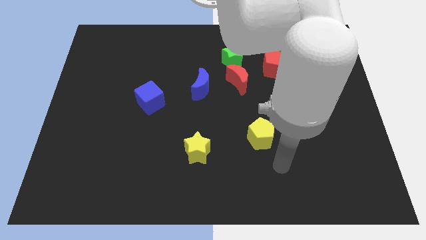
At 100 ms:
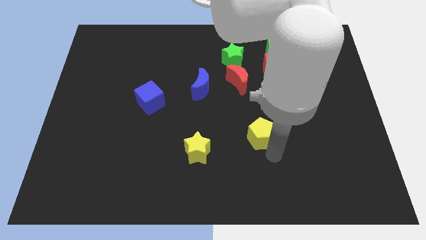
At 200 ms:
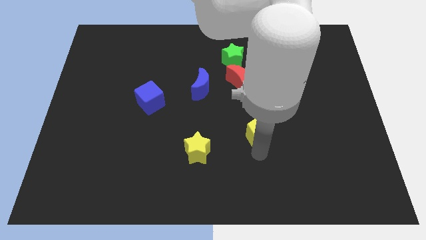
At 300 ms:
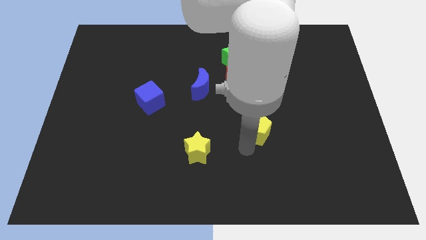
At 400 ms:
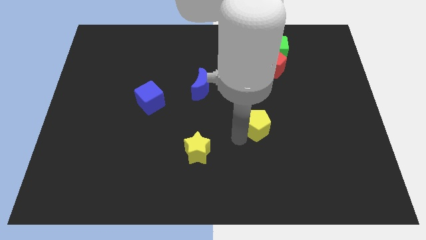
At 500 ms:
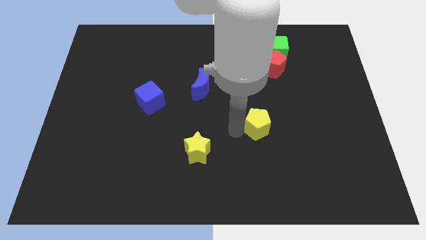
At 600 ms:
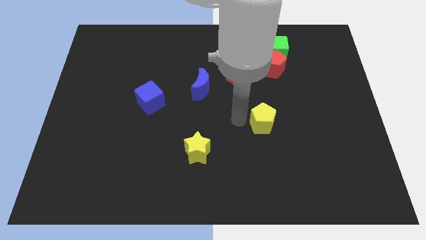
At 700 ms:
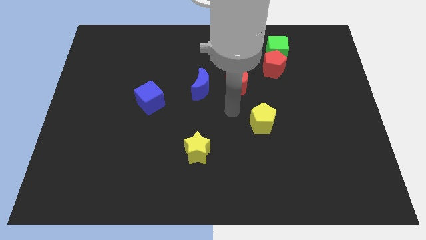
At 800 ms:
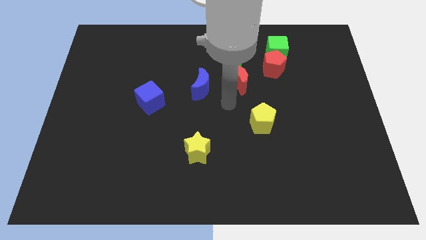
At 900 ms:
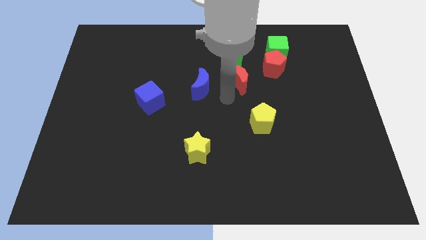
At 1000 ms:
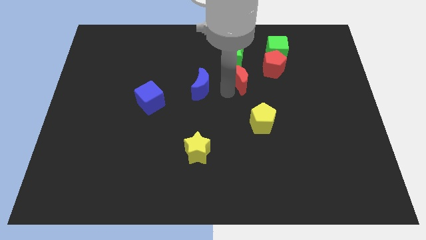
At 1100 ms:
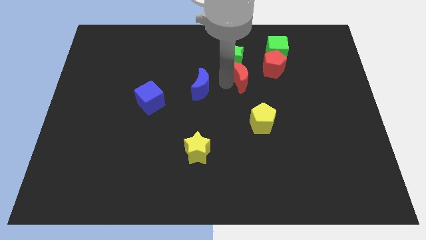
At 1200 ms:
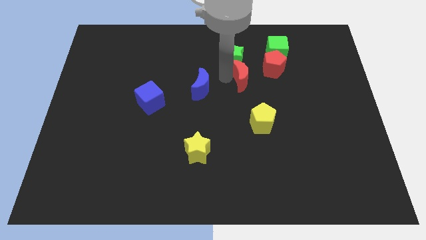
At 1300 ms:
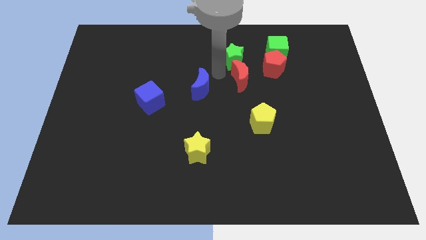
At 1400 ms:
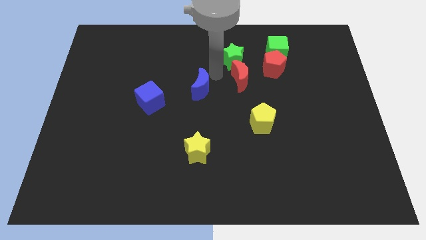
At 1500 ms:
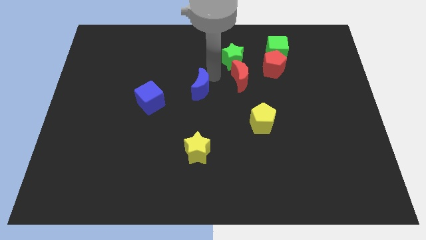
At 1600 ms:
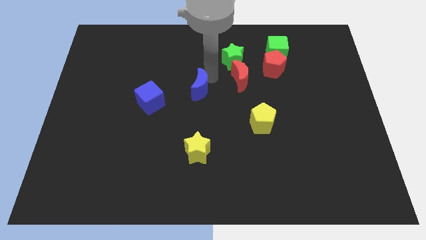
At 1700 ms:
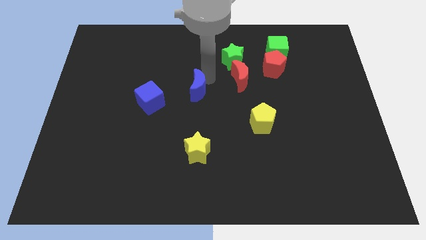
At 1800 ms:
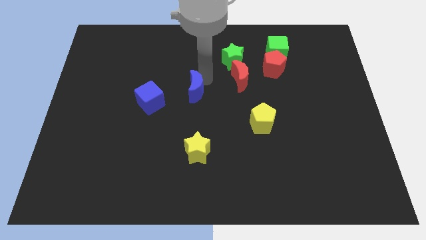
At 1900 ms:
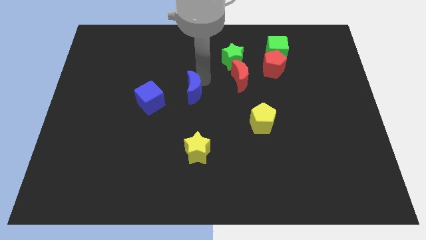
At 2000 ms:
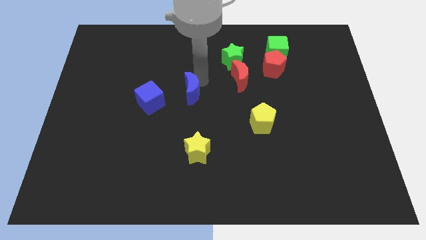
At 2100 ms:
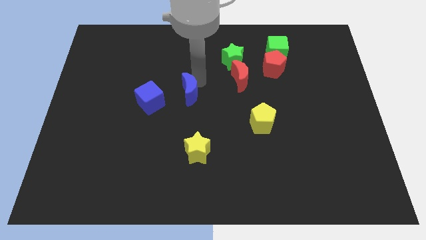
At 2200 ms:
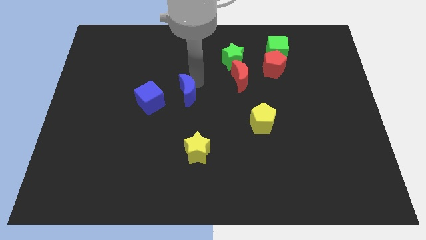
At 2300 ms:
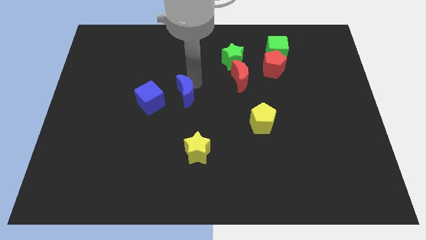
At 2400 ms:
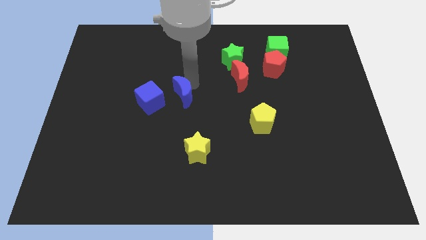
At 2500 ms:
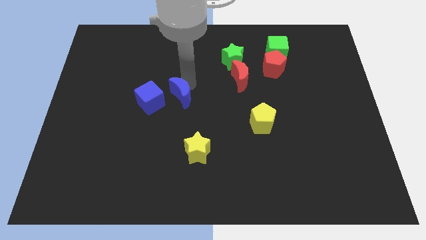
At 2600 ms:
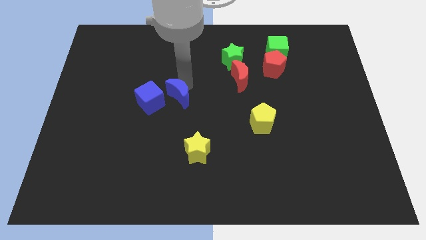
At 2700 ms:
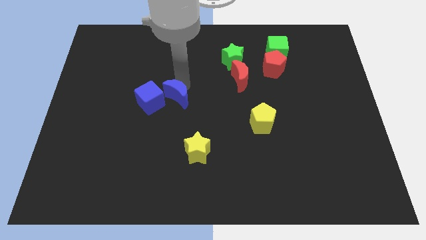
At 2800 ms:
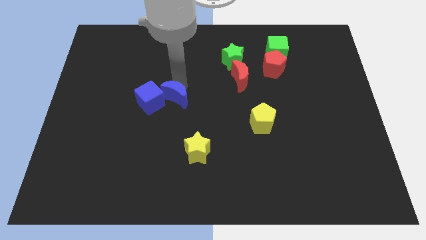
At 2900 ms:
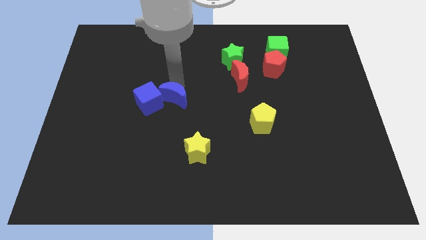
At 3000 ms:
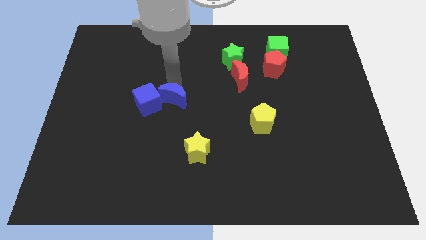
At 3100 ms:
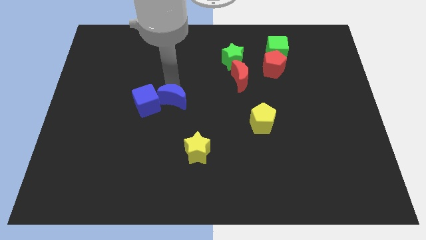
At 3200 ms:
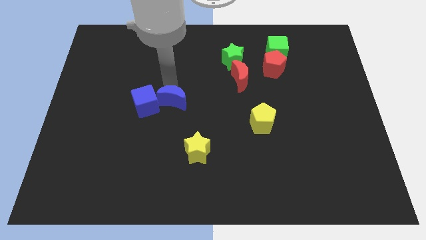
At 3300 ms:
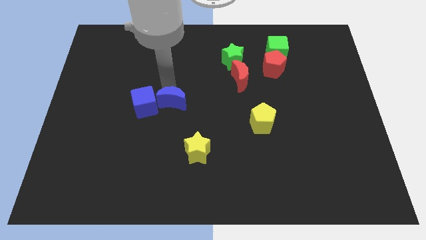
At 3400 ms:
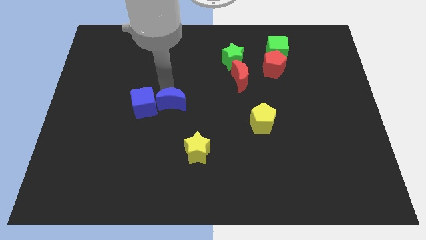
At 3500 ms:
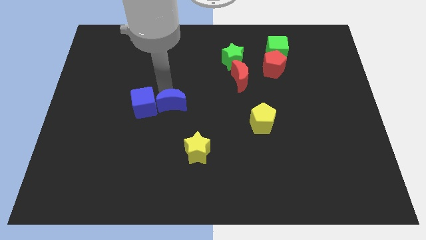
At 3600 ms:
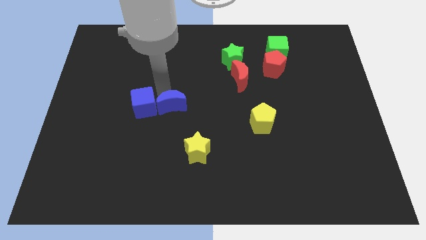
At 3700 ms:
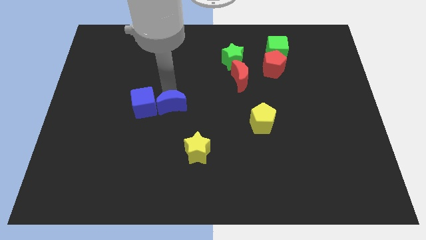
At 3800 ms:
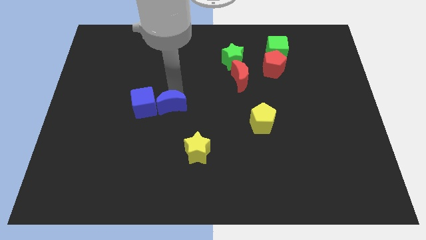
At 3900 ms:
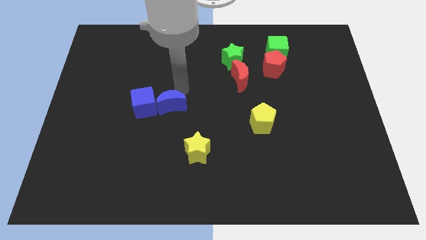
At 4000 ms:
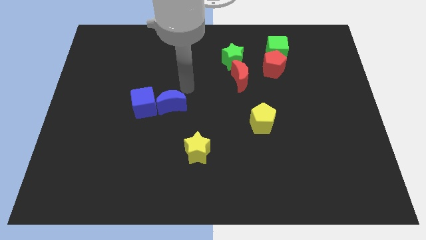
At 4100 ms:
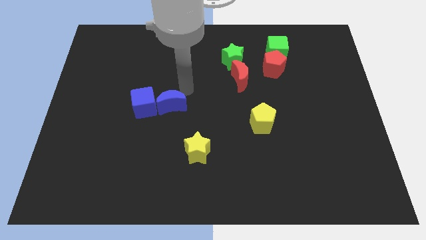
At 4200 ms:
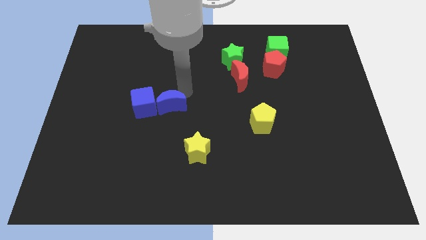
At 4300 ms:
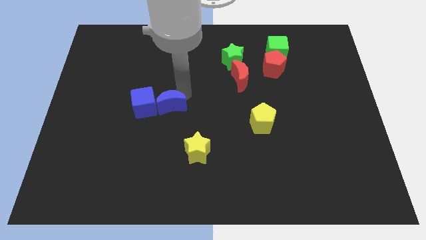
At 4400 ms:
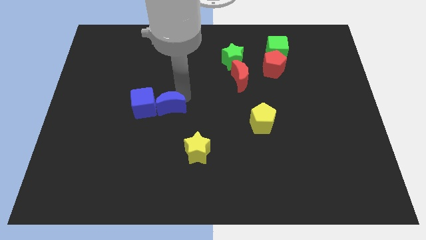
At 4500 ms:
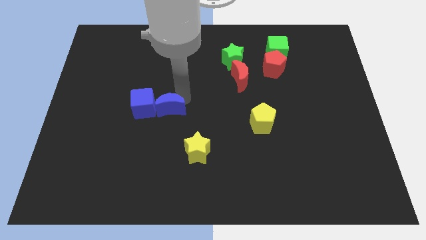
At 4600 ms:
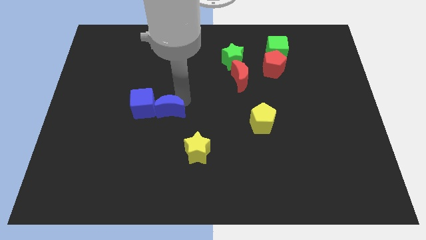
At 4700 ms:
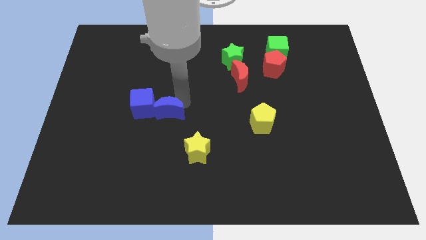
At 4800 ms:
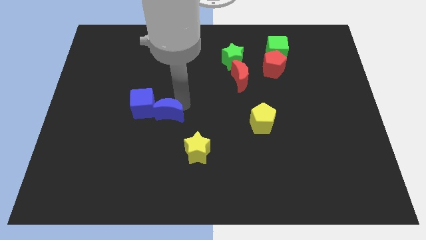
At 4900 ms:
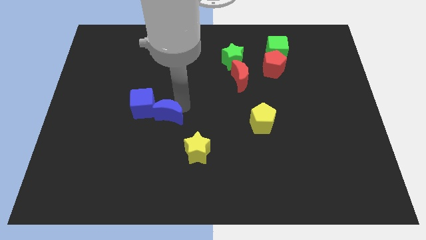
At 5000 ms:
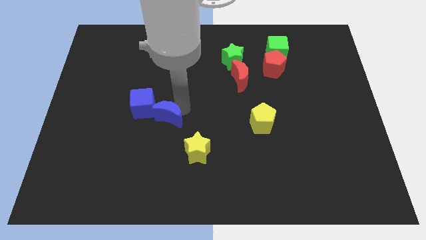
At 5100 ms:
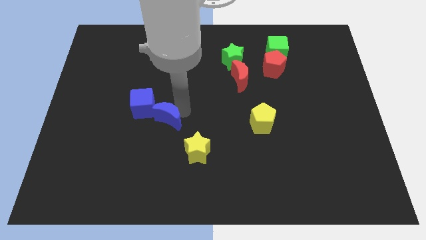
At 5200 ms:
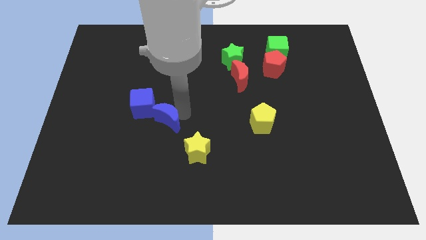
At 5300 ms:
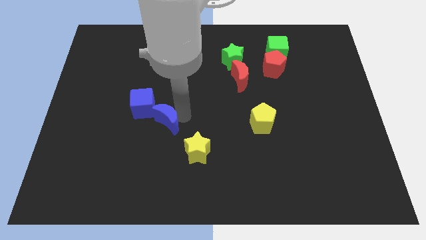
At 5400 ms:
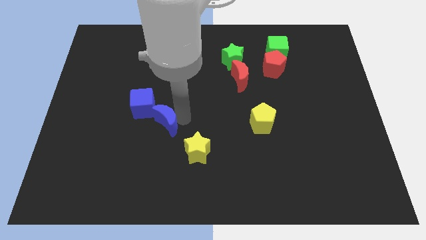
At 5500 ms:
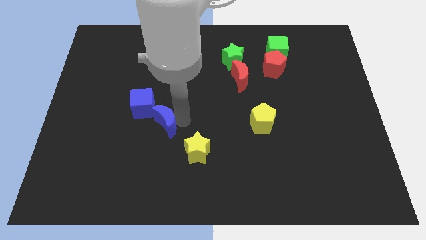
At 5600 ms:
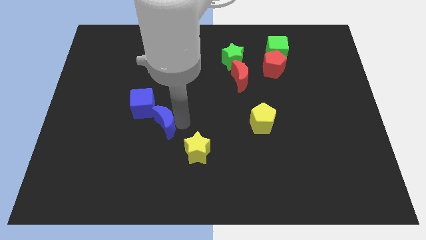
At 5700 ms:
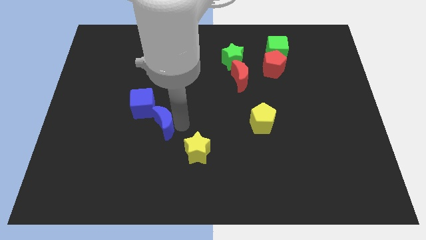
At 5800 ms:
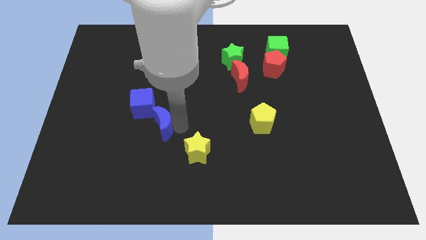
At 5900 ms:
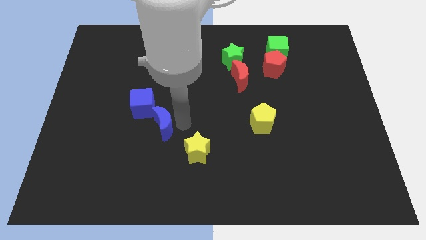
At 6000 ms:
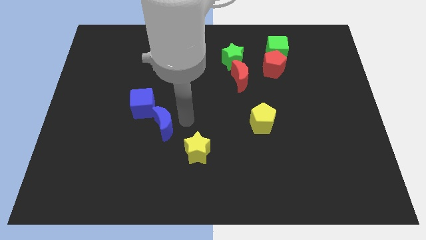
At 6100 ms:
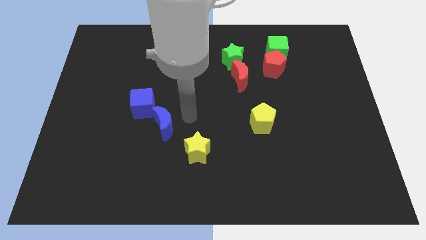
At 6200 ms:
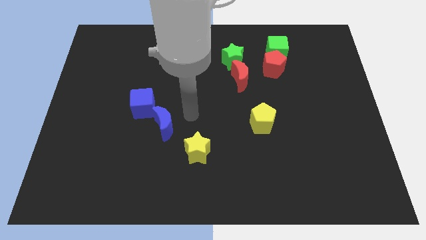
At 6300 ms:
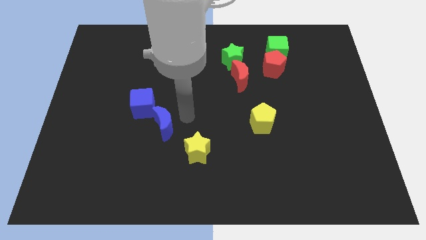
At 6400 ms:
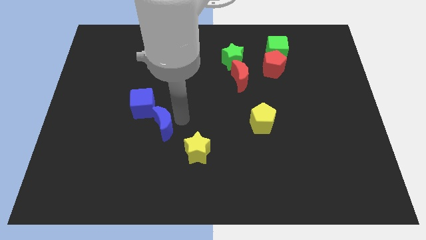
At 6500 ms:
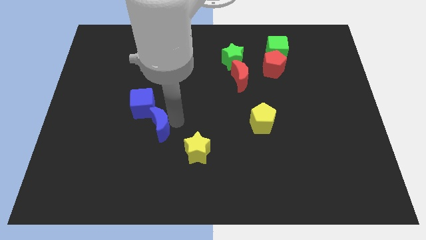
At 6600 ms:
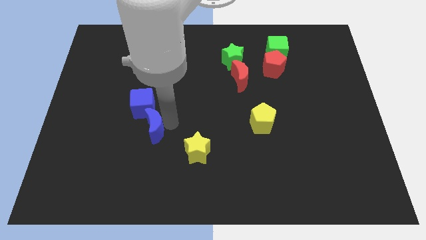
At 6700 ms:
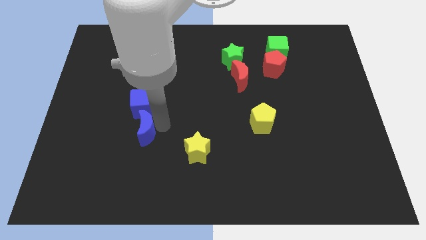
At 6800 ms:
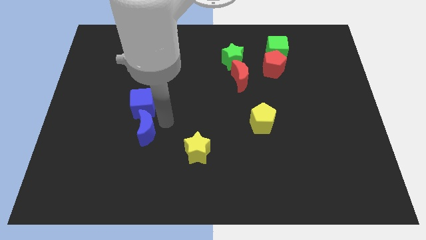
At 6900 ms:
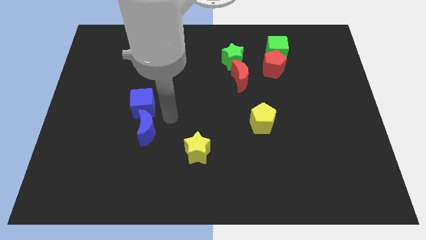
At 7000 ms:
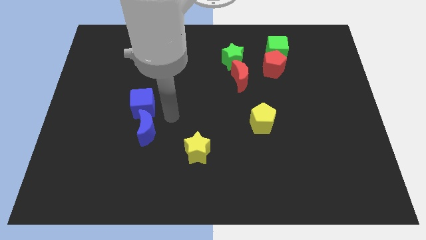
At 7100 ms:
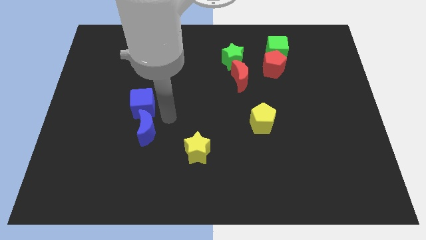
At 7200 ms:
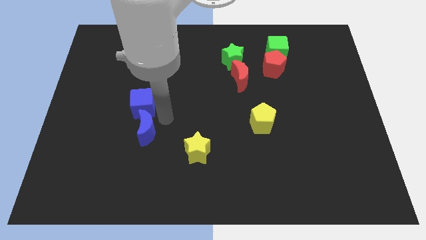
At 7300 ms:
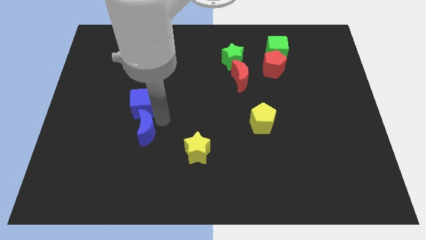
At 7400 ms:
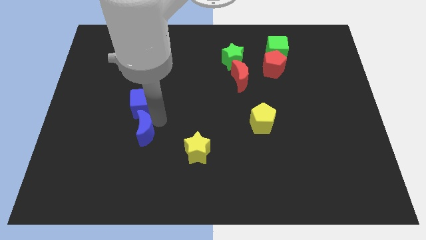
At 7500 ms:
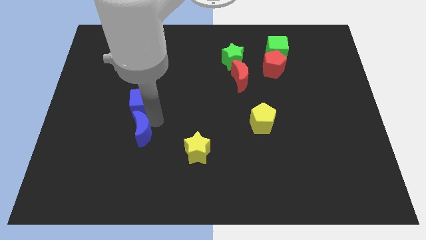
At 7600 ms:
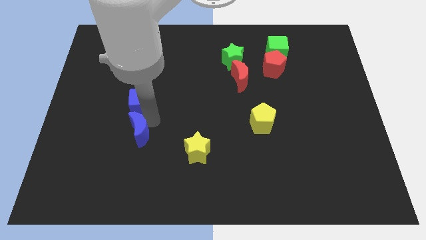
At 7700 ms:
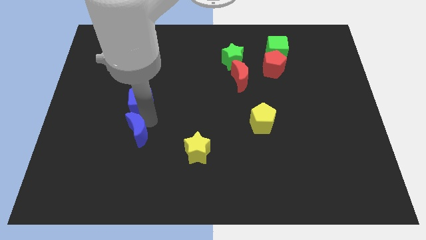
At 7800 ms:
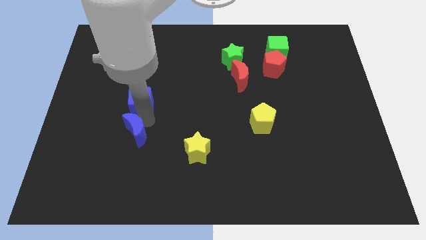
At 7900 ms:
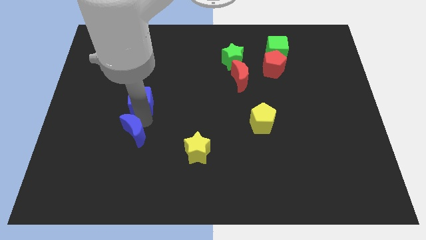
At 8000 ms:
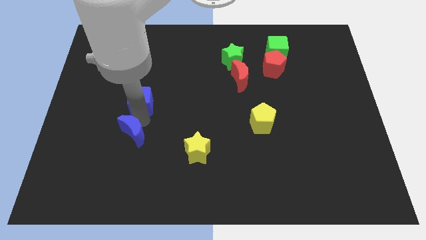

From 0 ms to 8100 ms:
push the blue moon downwards and to the left
